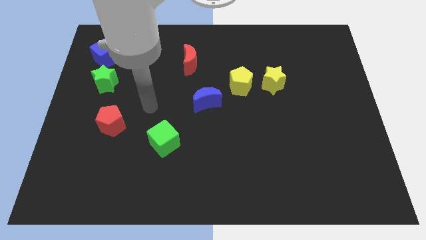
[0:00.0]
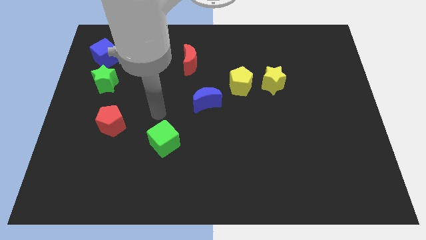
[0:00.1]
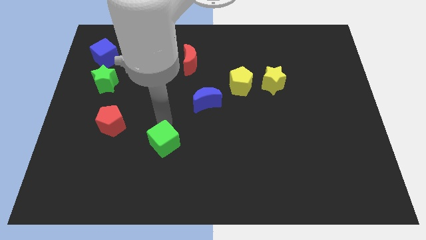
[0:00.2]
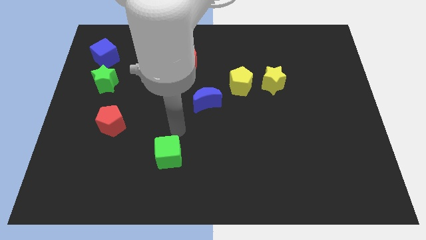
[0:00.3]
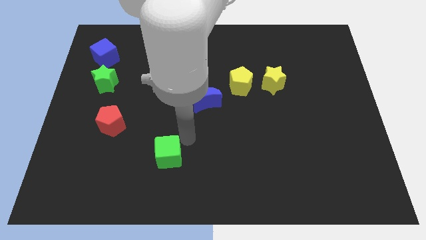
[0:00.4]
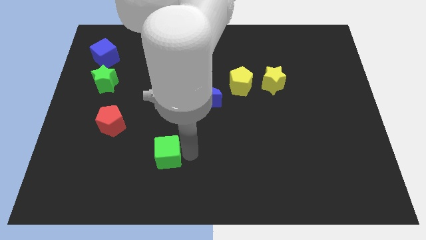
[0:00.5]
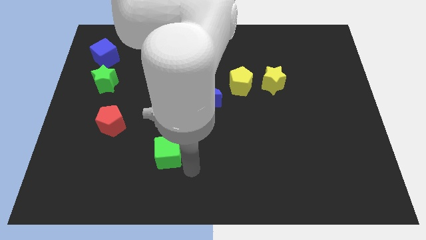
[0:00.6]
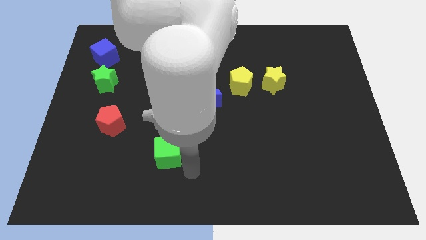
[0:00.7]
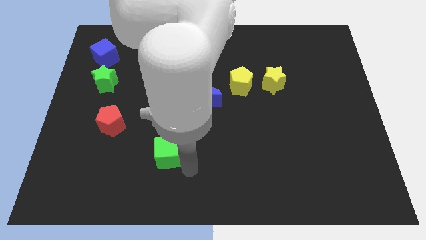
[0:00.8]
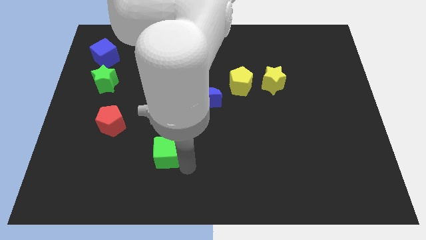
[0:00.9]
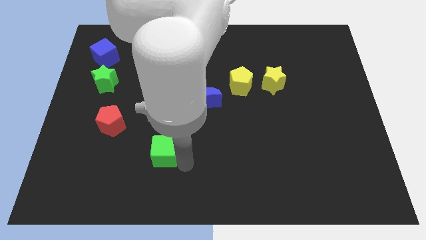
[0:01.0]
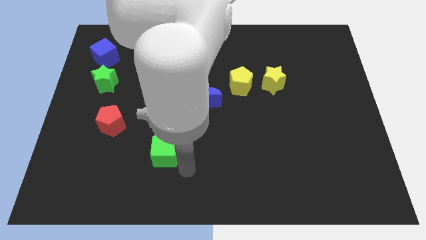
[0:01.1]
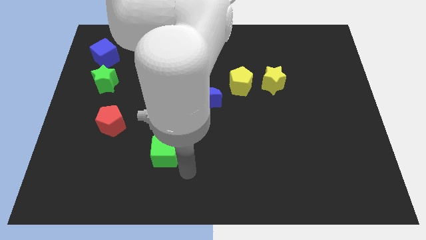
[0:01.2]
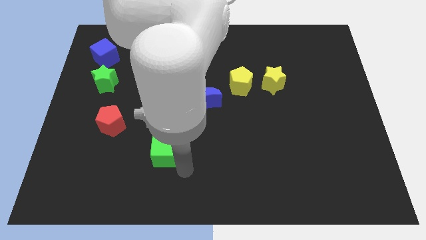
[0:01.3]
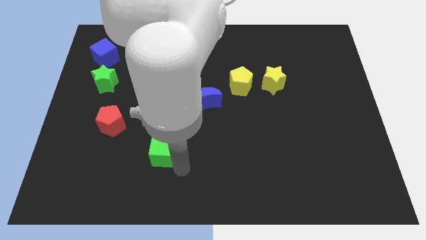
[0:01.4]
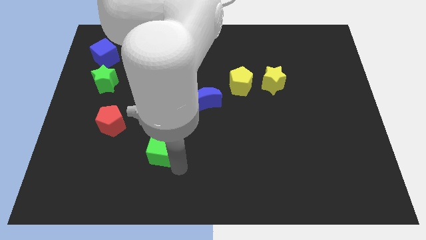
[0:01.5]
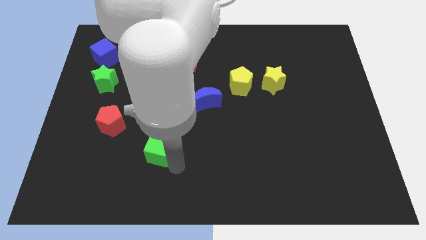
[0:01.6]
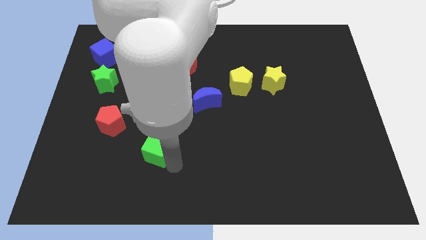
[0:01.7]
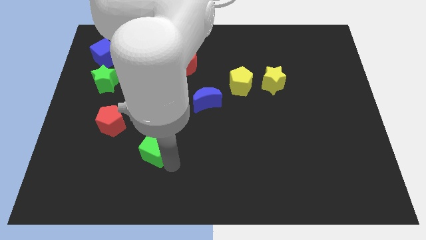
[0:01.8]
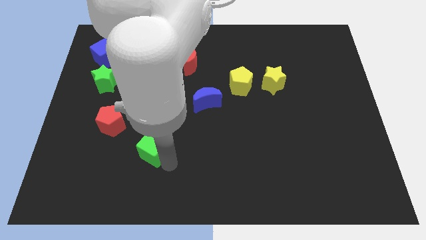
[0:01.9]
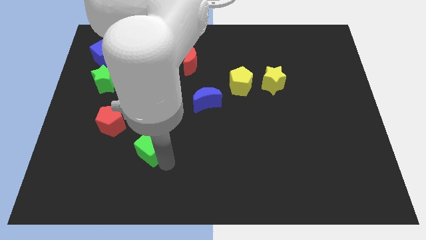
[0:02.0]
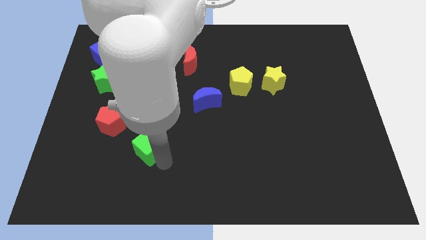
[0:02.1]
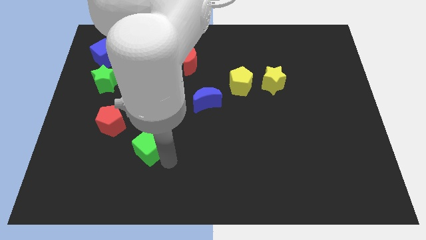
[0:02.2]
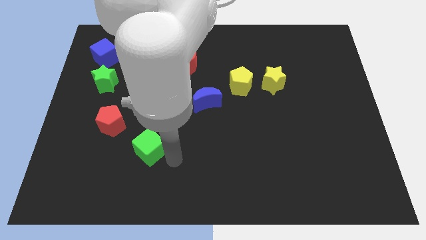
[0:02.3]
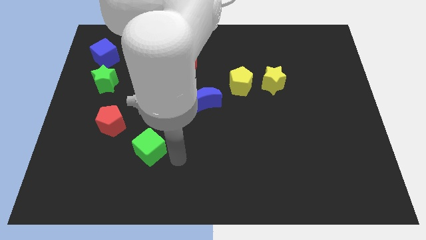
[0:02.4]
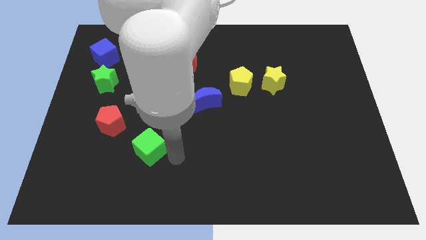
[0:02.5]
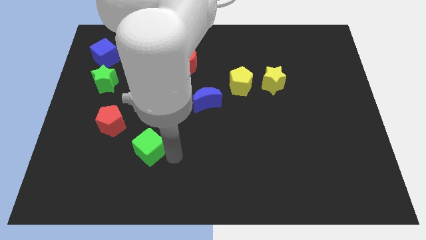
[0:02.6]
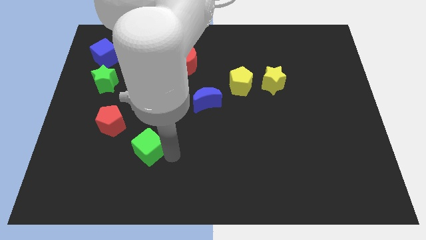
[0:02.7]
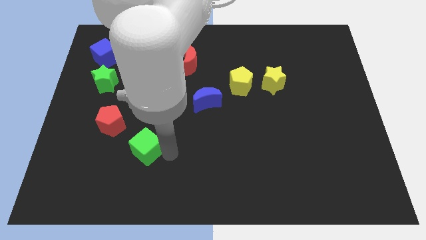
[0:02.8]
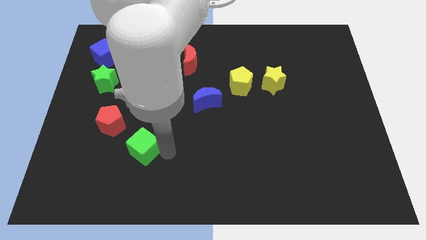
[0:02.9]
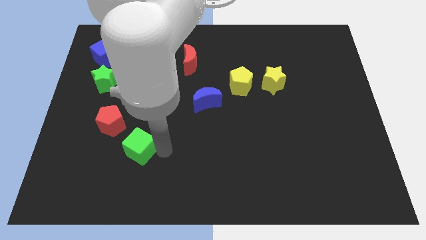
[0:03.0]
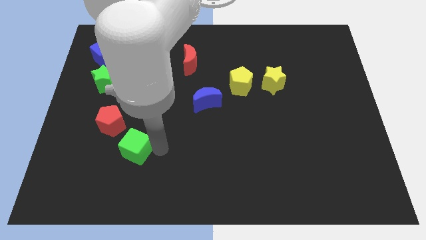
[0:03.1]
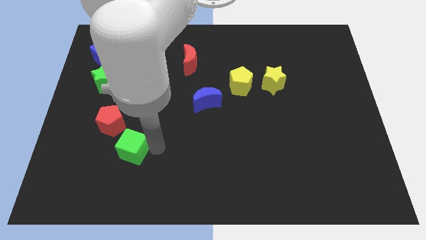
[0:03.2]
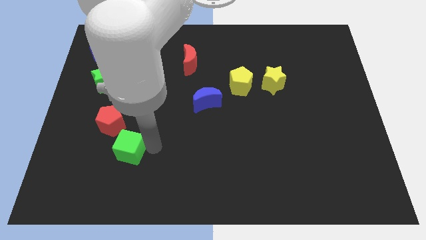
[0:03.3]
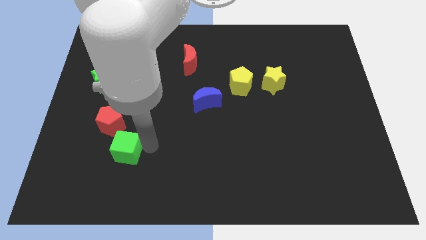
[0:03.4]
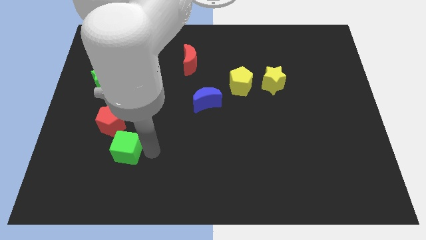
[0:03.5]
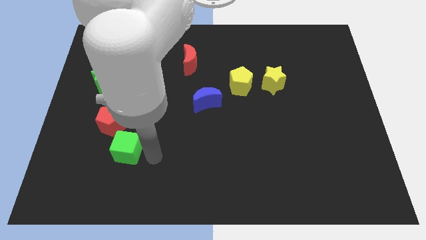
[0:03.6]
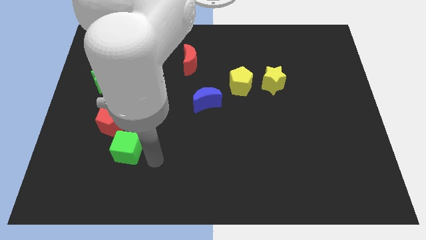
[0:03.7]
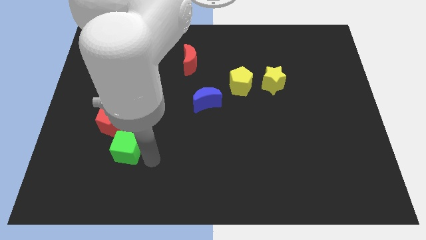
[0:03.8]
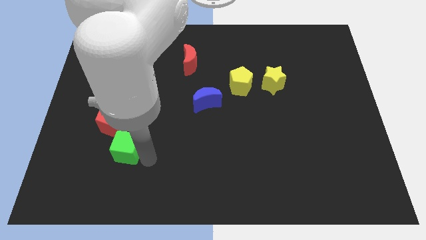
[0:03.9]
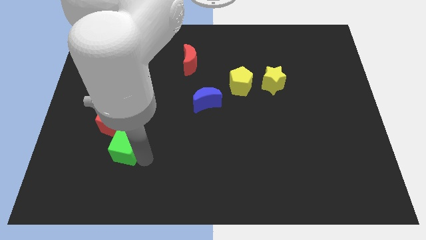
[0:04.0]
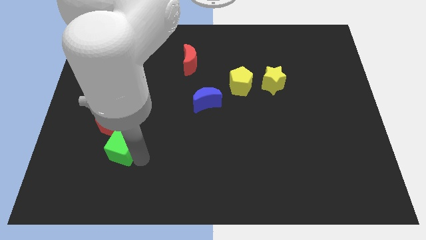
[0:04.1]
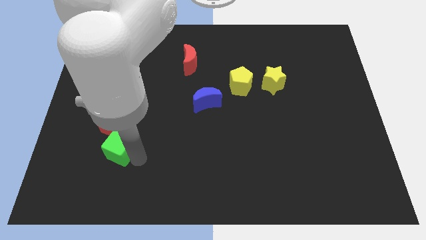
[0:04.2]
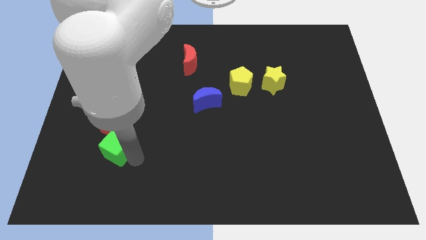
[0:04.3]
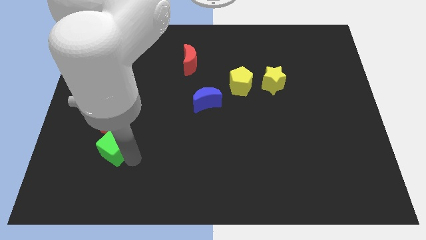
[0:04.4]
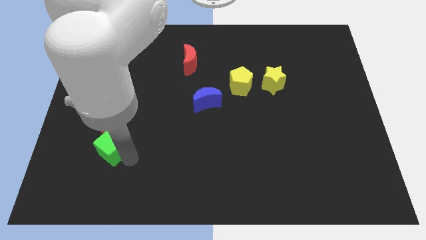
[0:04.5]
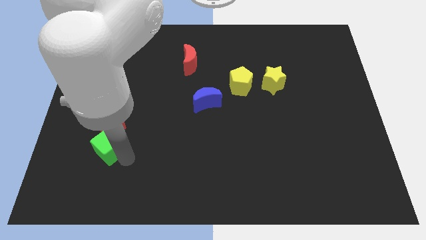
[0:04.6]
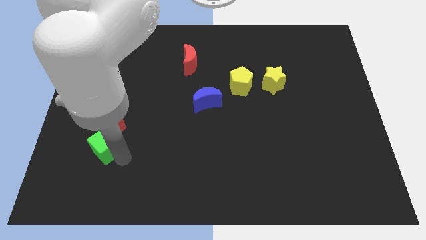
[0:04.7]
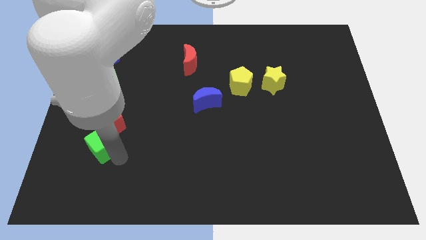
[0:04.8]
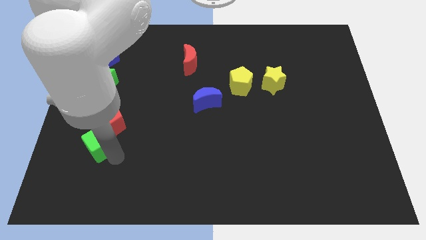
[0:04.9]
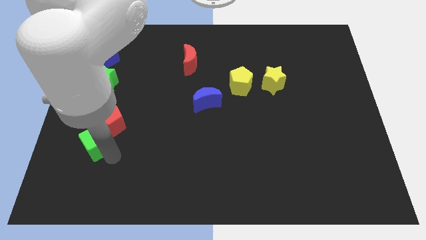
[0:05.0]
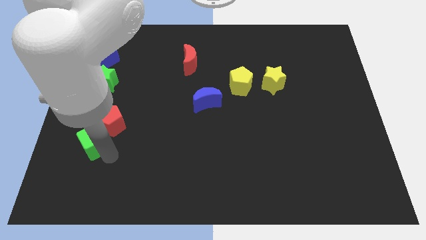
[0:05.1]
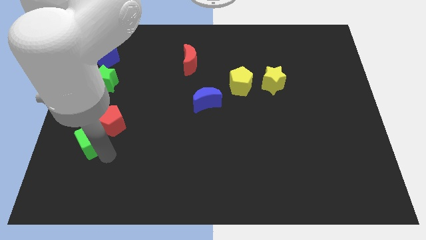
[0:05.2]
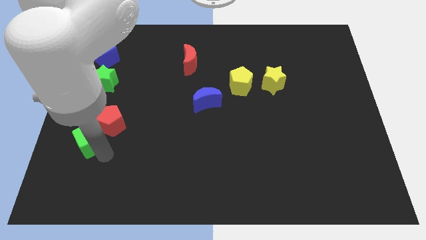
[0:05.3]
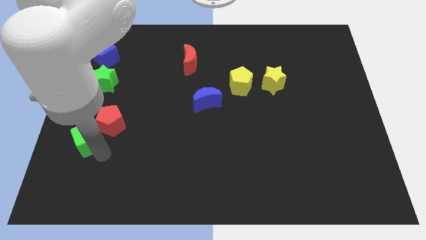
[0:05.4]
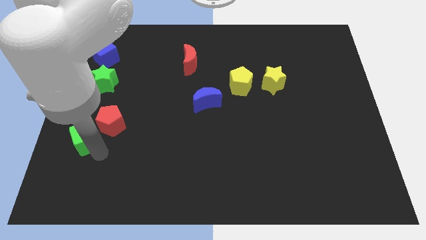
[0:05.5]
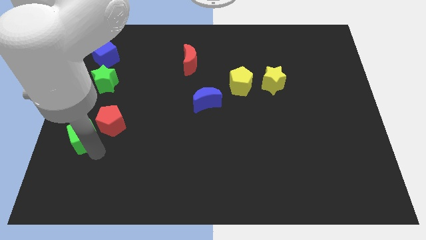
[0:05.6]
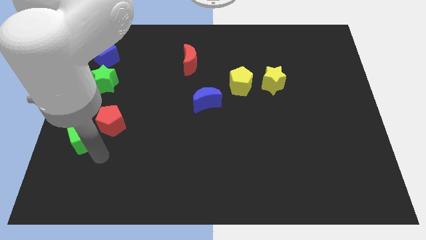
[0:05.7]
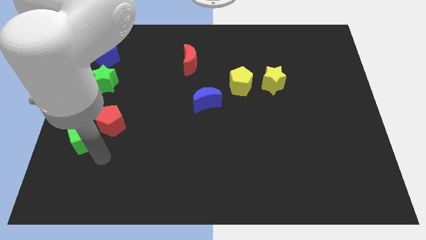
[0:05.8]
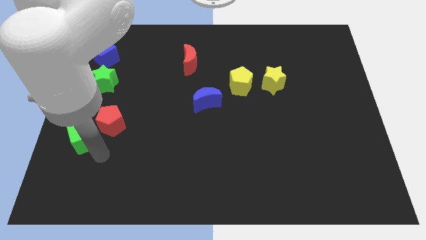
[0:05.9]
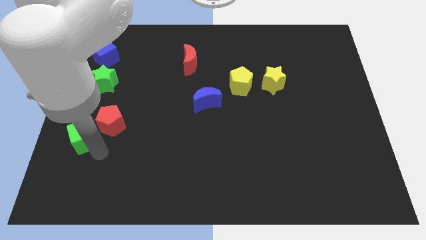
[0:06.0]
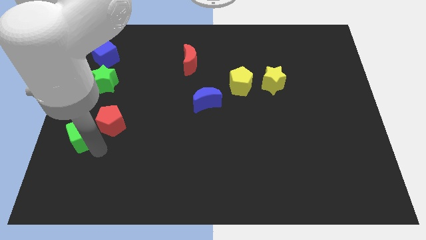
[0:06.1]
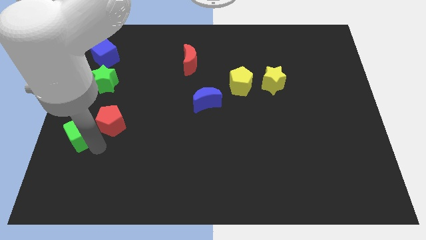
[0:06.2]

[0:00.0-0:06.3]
move the green cube to the left side of the board
